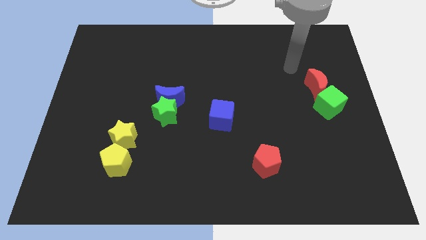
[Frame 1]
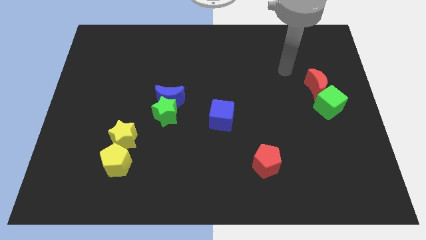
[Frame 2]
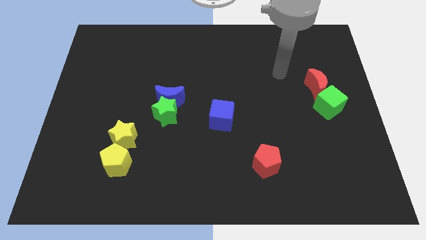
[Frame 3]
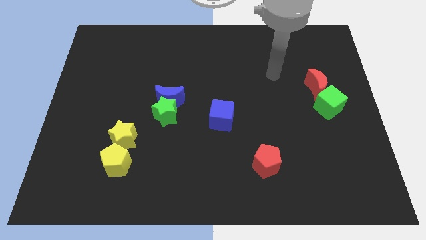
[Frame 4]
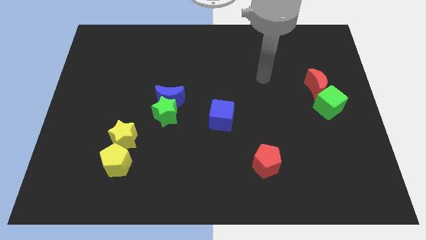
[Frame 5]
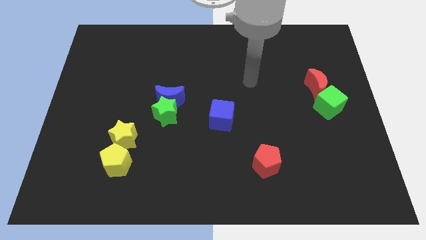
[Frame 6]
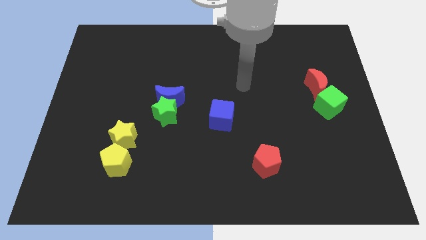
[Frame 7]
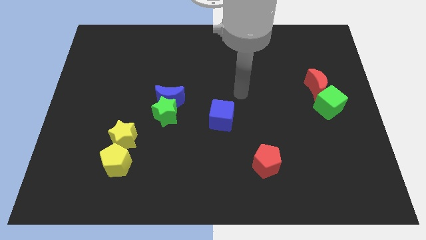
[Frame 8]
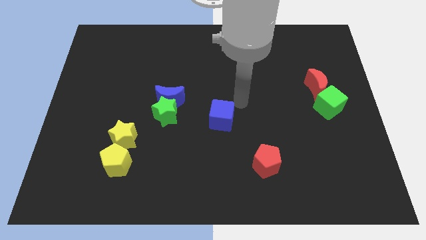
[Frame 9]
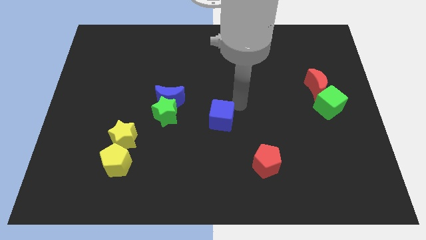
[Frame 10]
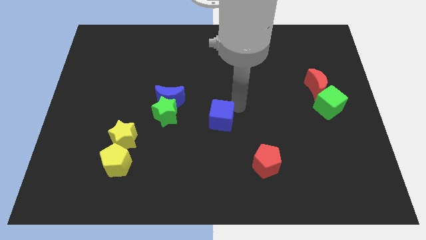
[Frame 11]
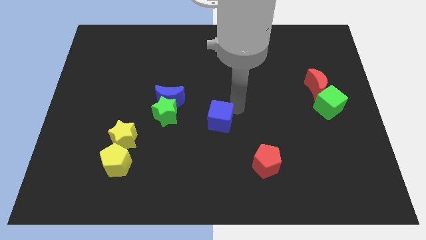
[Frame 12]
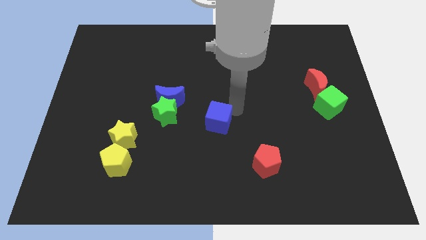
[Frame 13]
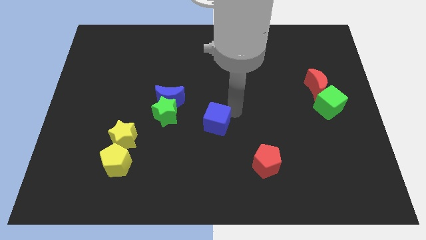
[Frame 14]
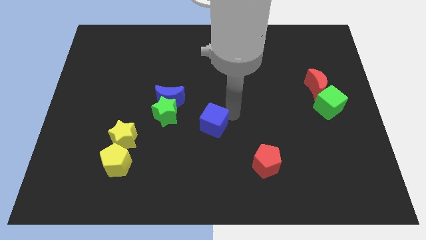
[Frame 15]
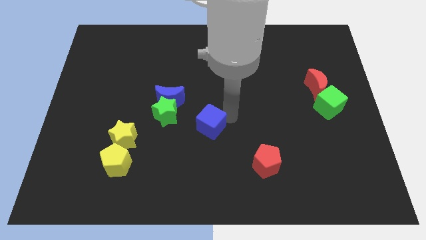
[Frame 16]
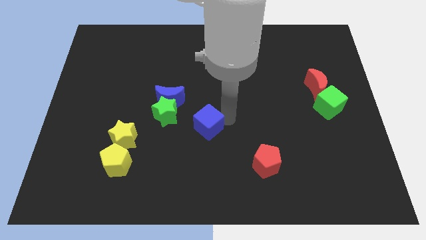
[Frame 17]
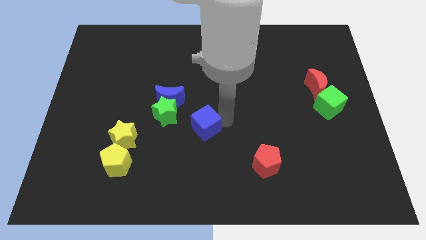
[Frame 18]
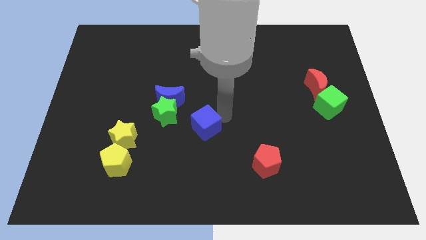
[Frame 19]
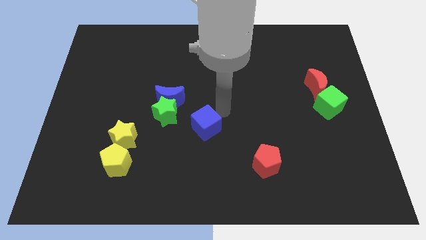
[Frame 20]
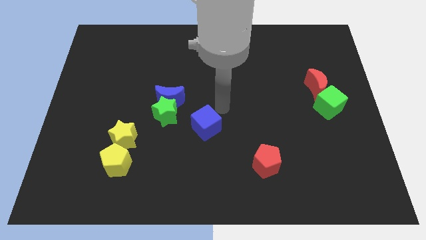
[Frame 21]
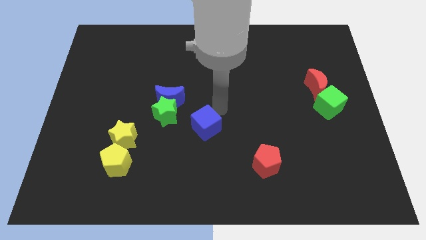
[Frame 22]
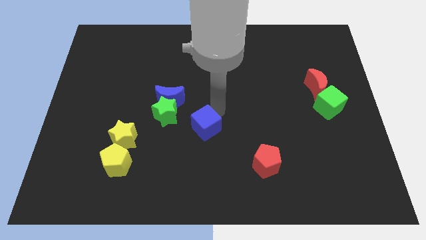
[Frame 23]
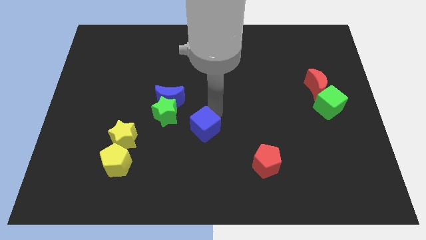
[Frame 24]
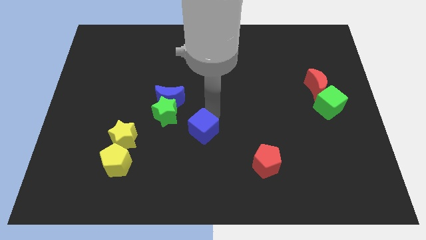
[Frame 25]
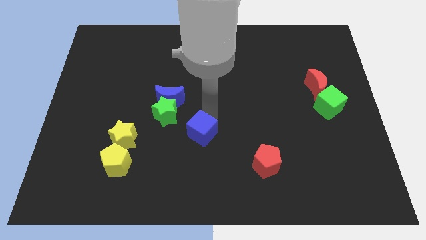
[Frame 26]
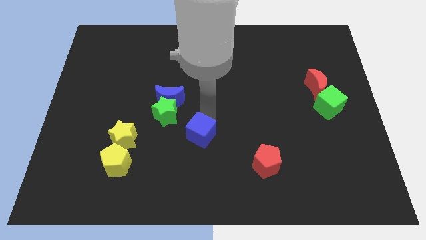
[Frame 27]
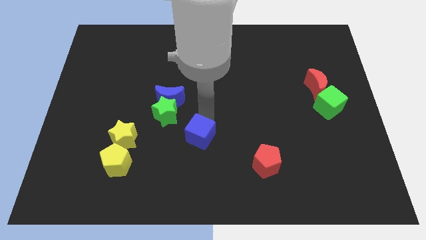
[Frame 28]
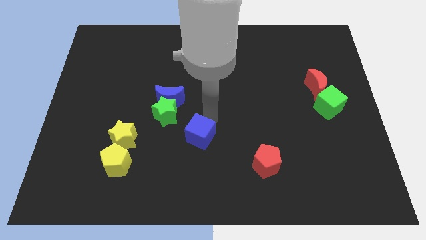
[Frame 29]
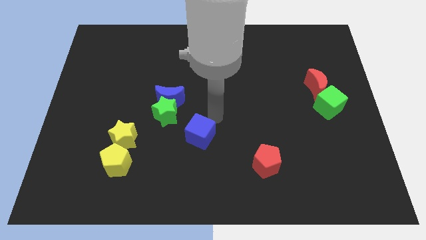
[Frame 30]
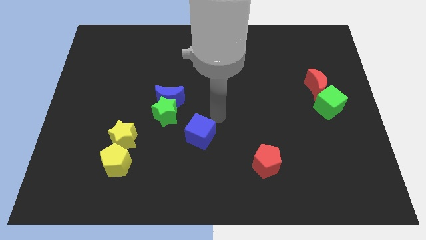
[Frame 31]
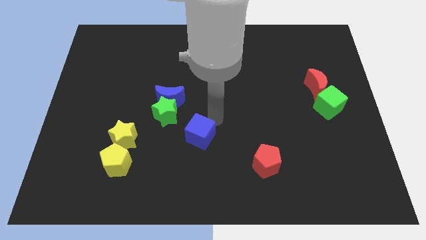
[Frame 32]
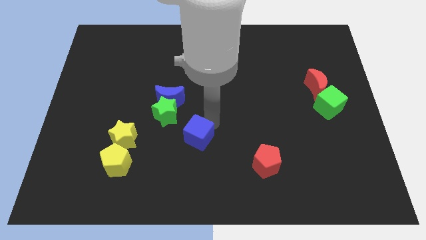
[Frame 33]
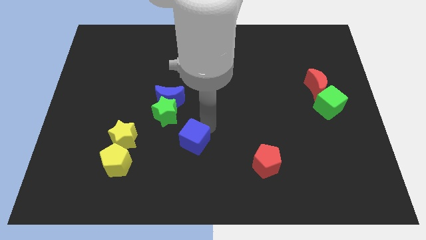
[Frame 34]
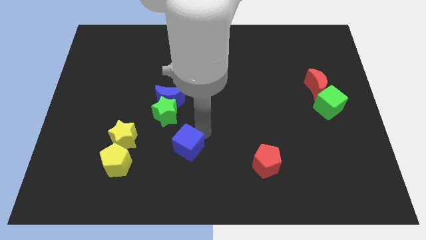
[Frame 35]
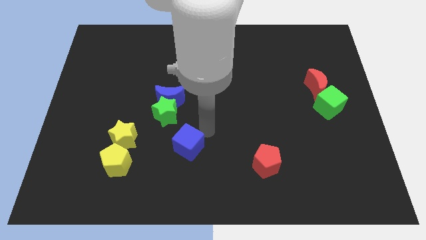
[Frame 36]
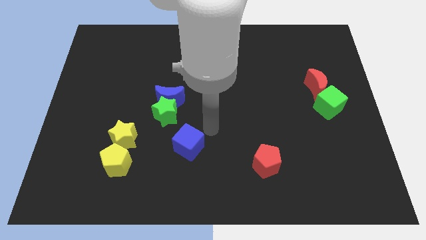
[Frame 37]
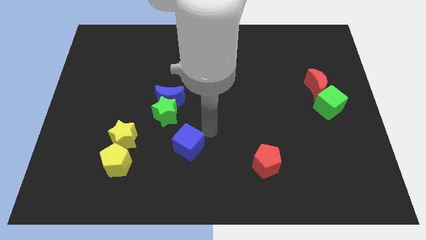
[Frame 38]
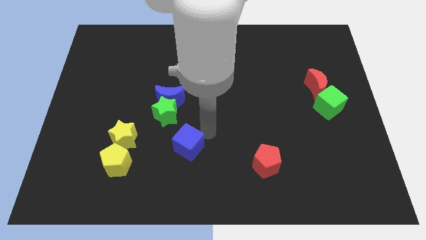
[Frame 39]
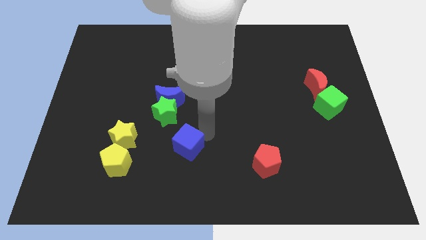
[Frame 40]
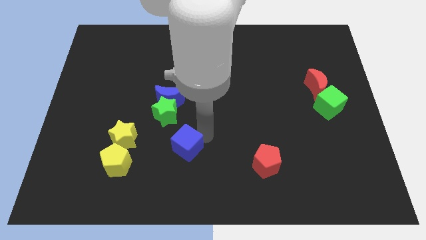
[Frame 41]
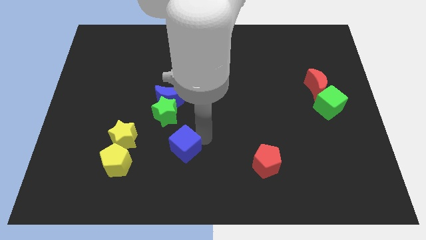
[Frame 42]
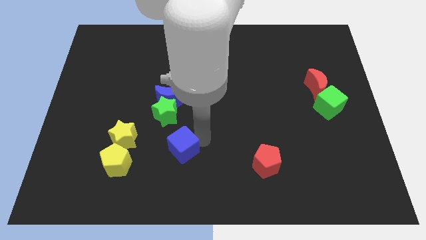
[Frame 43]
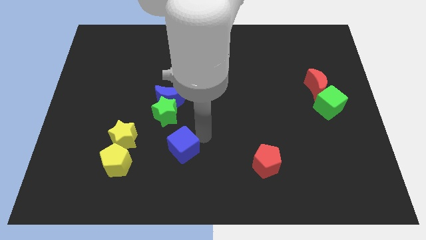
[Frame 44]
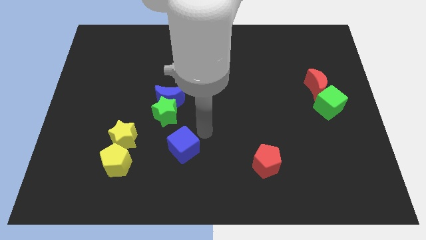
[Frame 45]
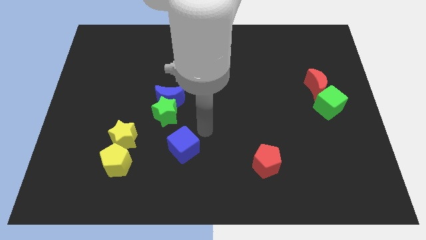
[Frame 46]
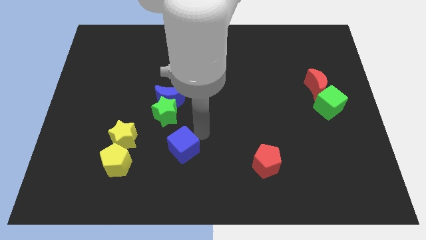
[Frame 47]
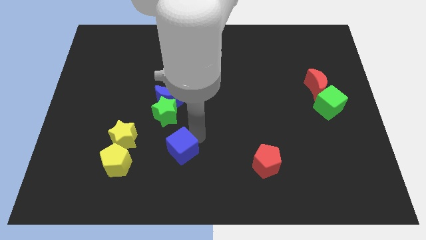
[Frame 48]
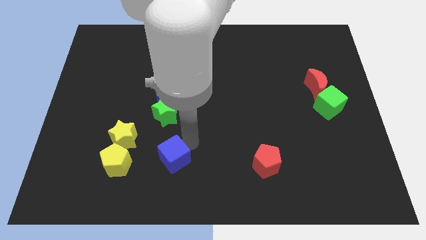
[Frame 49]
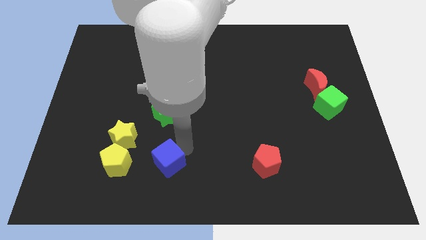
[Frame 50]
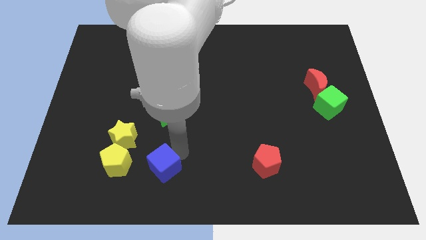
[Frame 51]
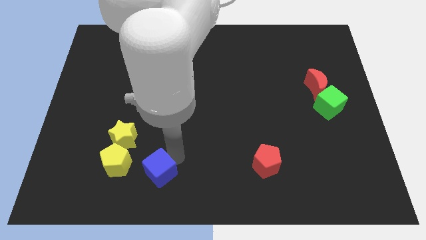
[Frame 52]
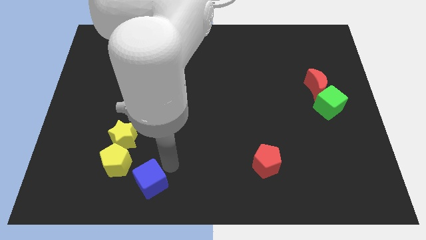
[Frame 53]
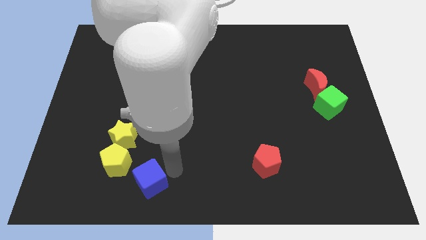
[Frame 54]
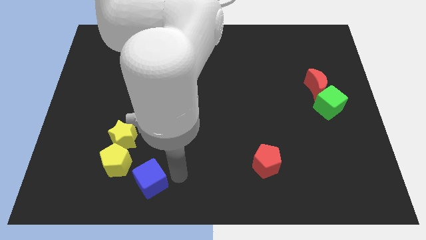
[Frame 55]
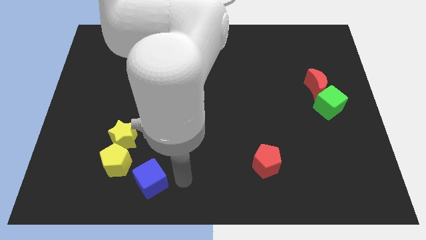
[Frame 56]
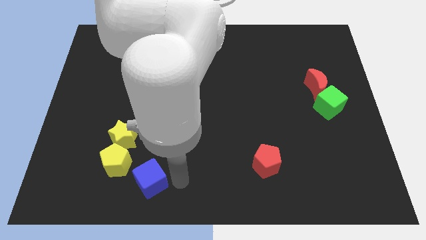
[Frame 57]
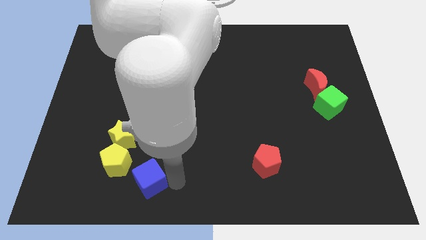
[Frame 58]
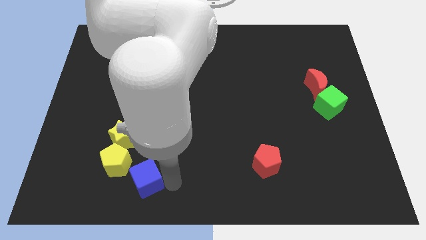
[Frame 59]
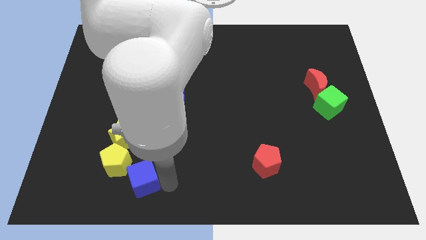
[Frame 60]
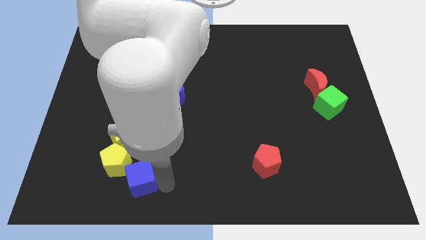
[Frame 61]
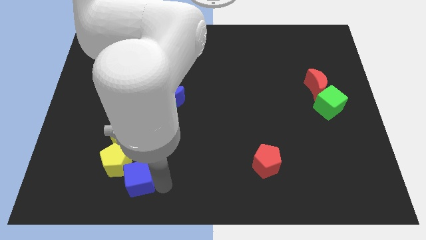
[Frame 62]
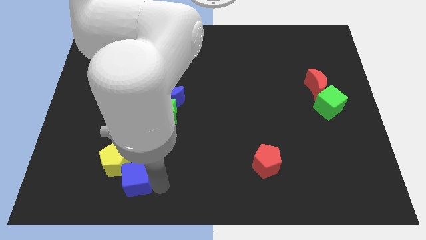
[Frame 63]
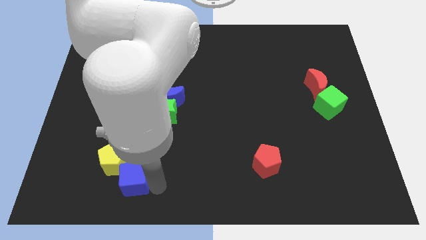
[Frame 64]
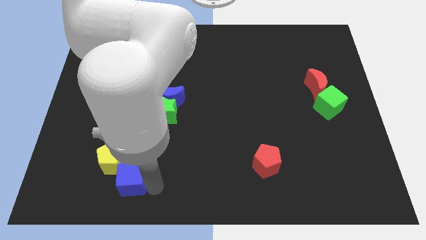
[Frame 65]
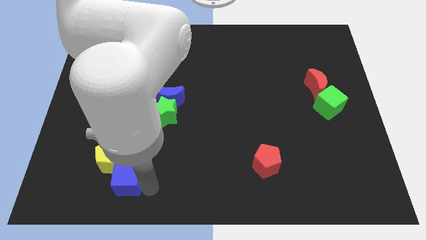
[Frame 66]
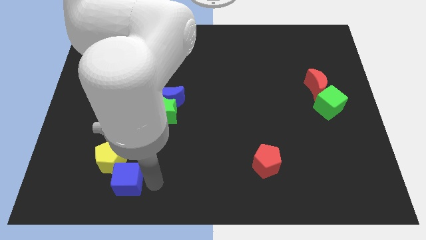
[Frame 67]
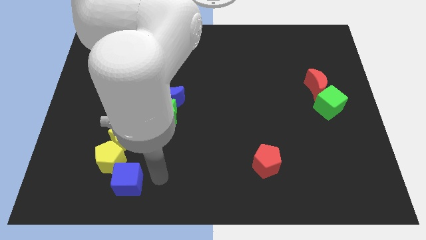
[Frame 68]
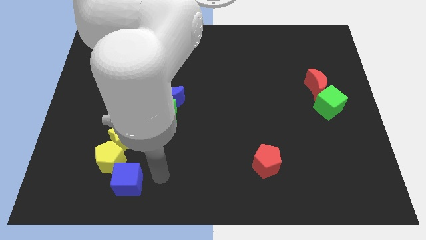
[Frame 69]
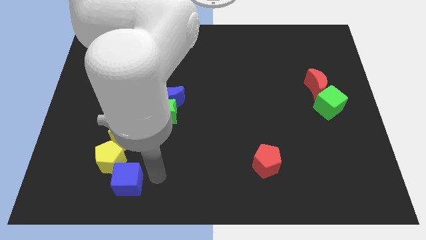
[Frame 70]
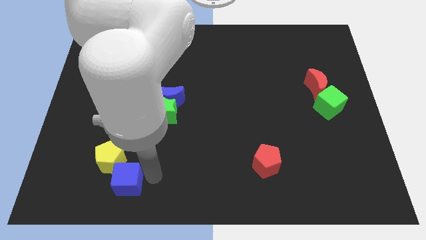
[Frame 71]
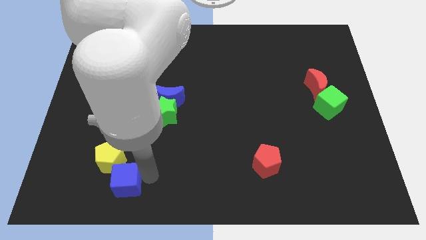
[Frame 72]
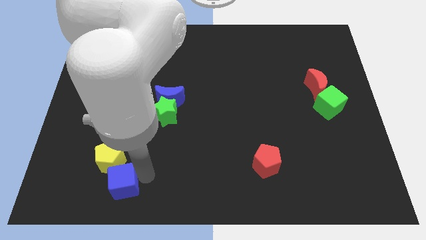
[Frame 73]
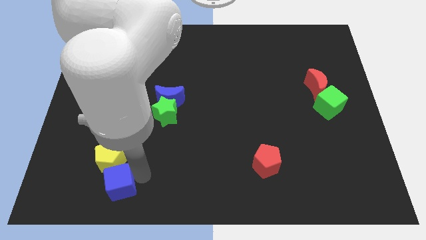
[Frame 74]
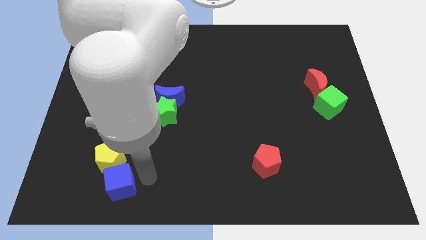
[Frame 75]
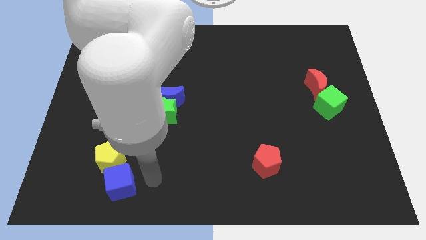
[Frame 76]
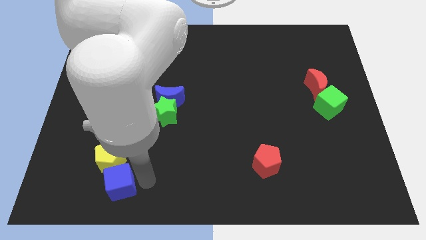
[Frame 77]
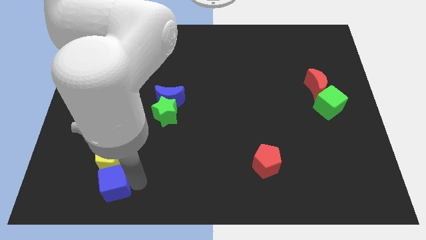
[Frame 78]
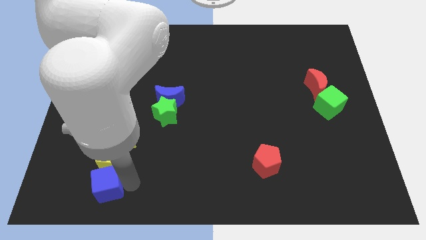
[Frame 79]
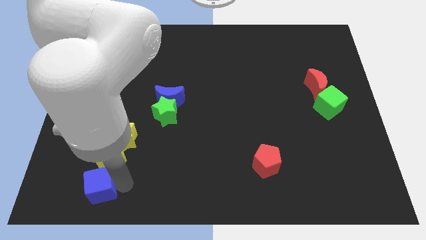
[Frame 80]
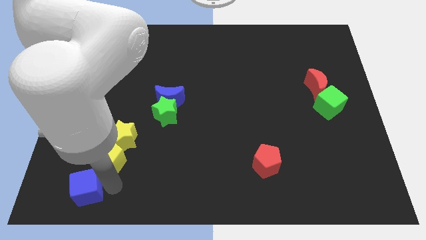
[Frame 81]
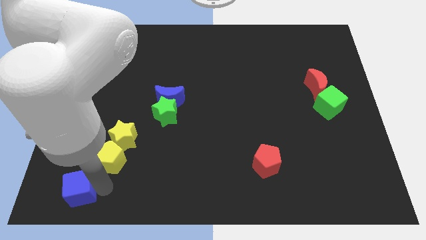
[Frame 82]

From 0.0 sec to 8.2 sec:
slide the blue cube to the bottom left corner
